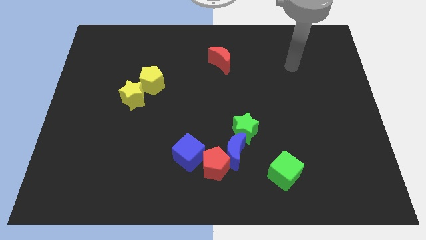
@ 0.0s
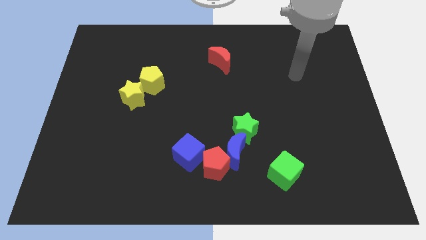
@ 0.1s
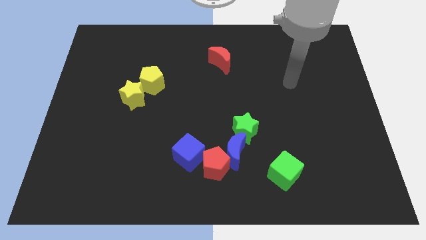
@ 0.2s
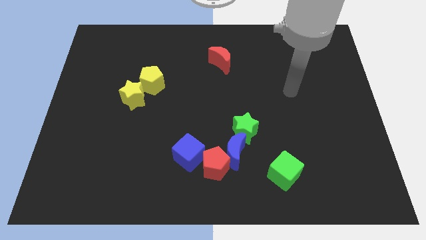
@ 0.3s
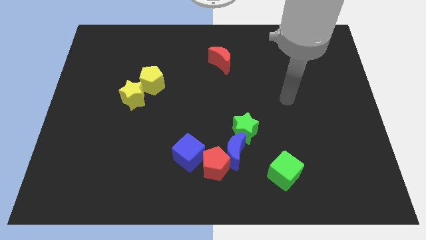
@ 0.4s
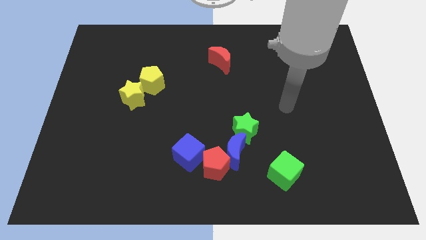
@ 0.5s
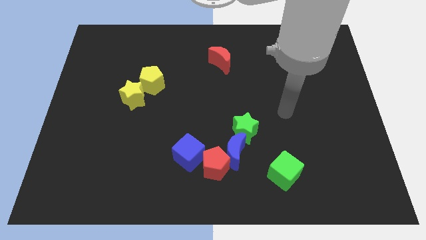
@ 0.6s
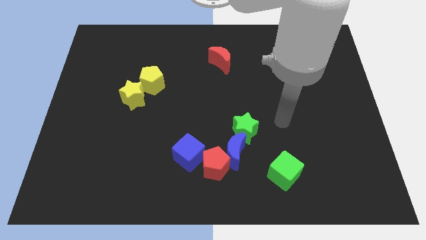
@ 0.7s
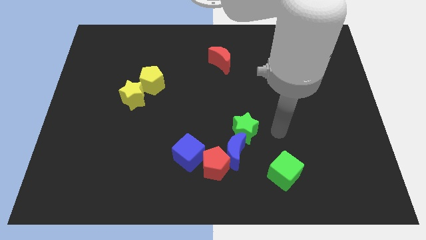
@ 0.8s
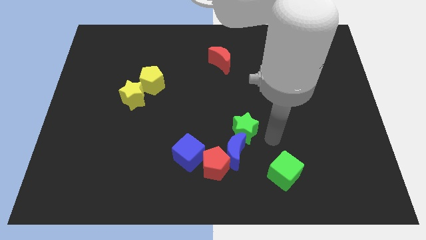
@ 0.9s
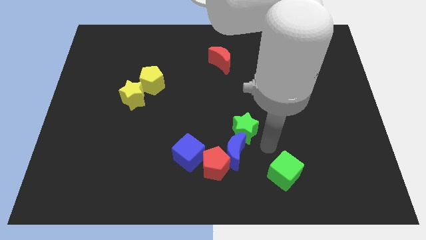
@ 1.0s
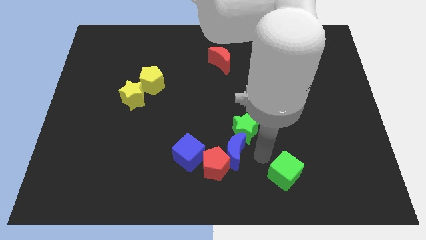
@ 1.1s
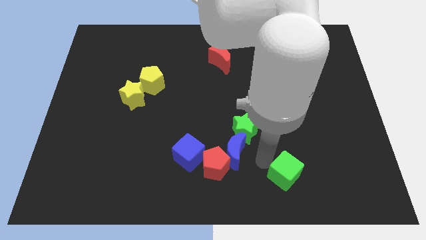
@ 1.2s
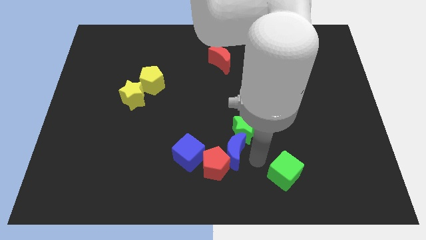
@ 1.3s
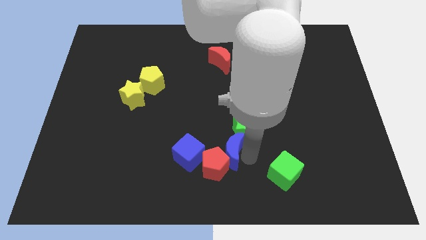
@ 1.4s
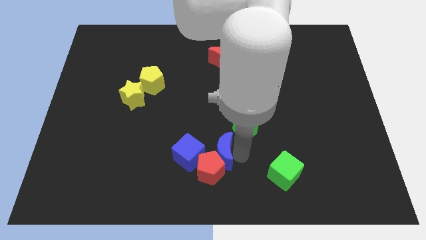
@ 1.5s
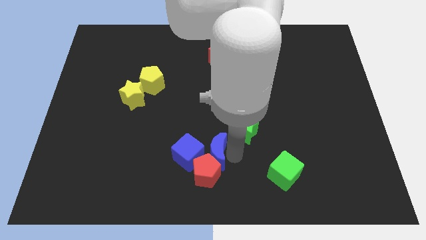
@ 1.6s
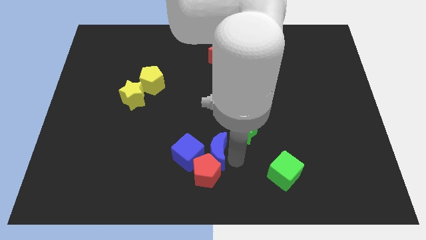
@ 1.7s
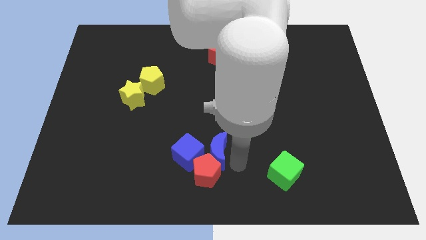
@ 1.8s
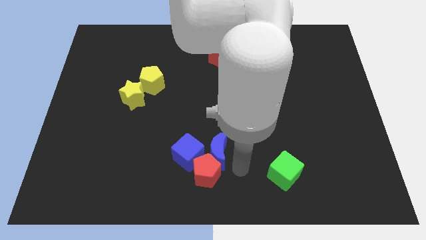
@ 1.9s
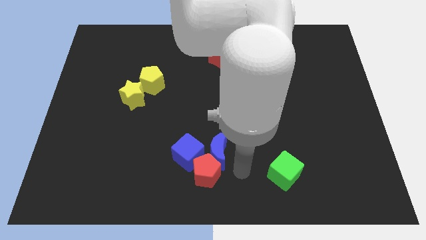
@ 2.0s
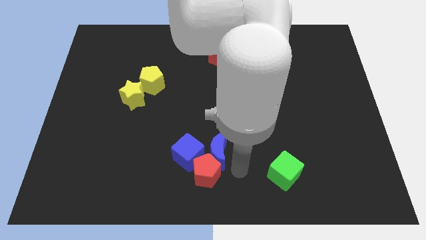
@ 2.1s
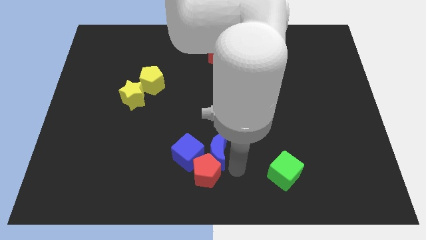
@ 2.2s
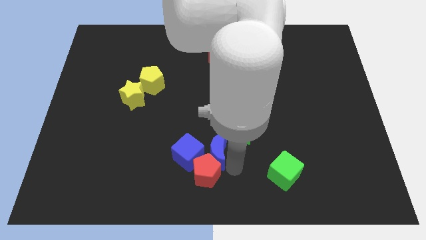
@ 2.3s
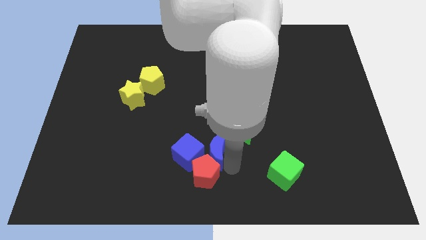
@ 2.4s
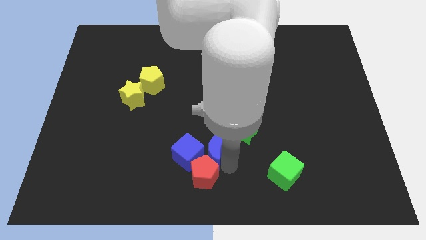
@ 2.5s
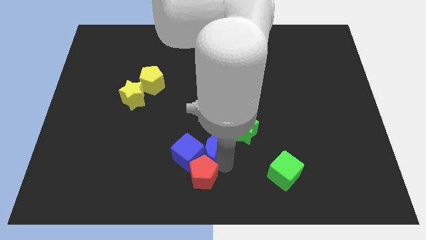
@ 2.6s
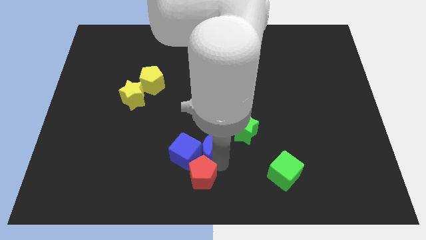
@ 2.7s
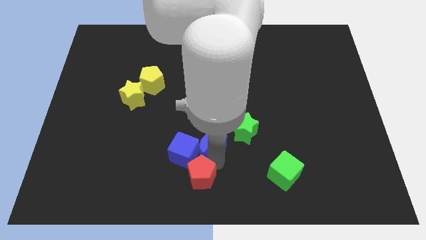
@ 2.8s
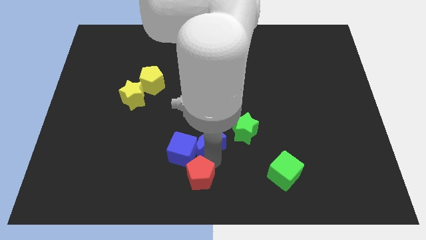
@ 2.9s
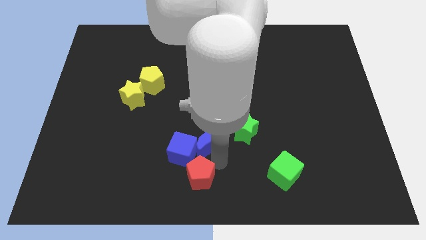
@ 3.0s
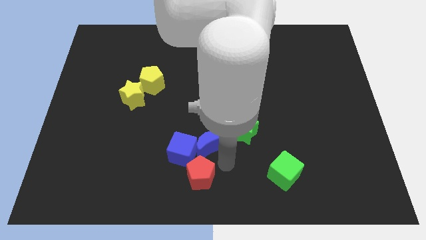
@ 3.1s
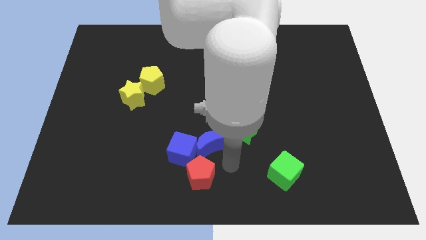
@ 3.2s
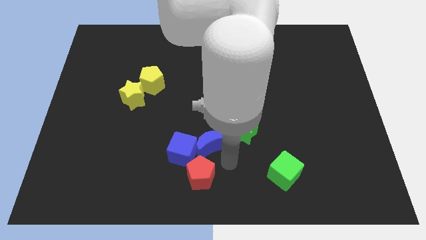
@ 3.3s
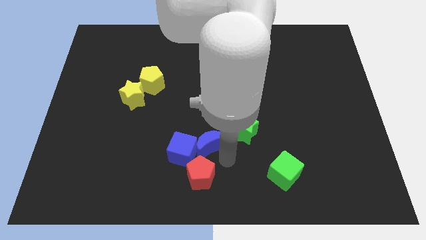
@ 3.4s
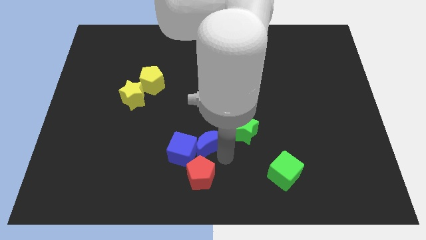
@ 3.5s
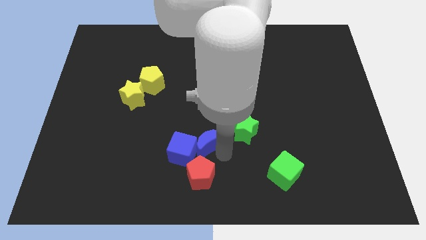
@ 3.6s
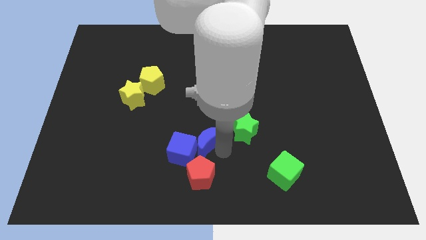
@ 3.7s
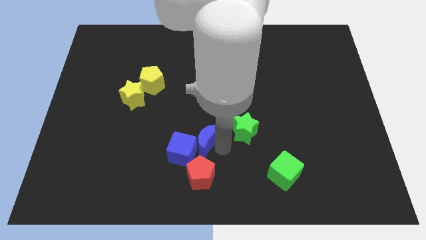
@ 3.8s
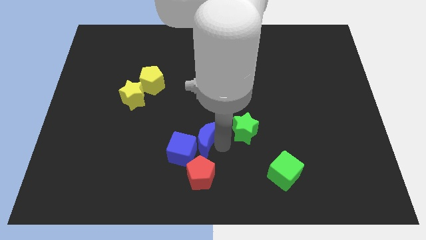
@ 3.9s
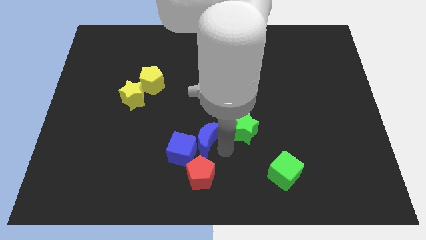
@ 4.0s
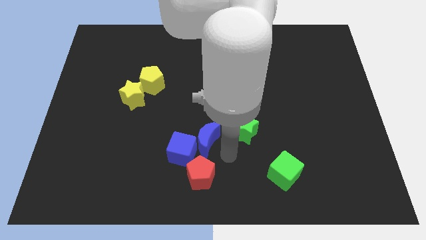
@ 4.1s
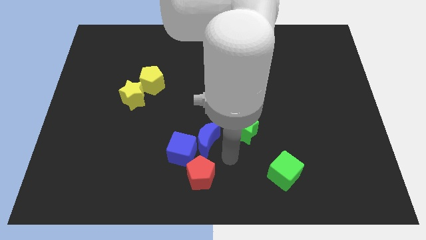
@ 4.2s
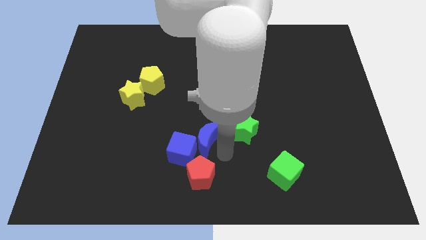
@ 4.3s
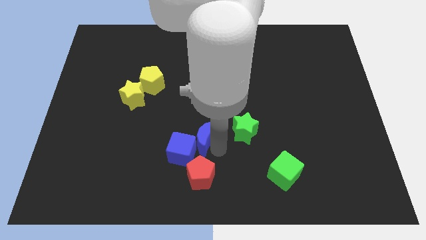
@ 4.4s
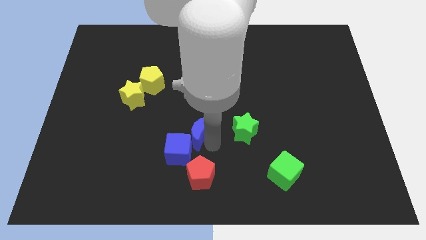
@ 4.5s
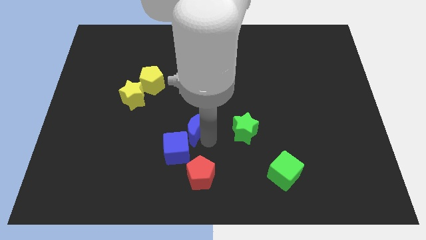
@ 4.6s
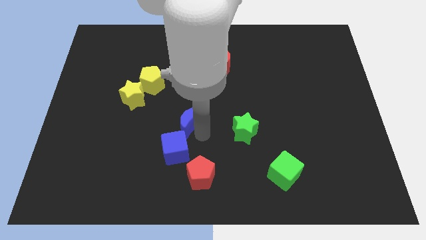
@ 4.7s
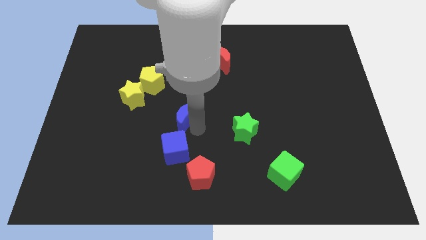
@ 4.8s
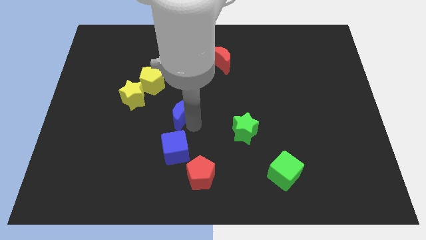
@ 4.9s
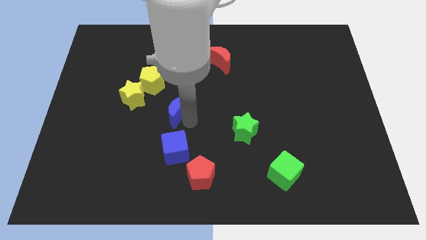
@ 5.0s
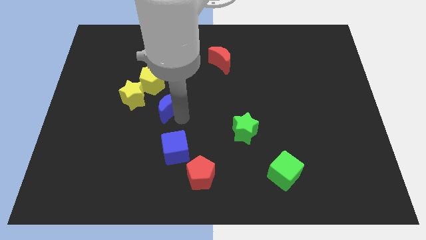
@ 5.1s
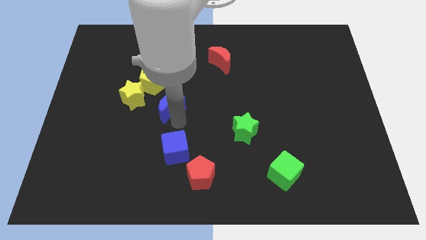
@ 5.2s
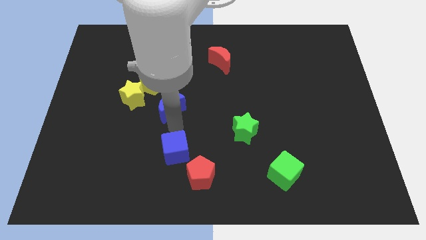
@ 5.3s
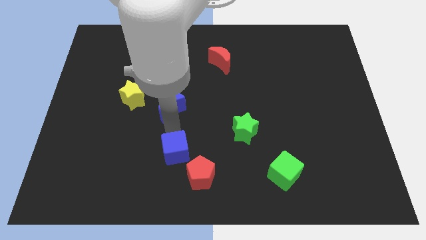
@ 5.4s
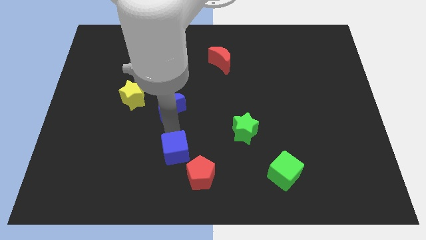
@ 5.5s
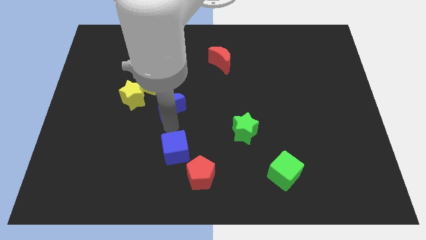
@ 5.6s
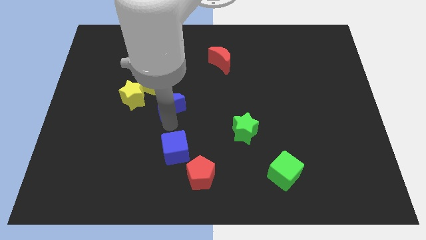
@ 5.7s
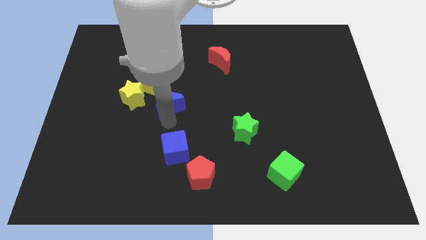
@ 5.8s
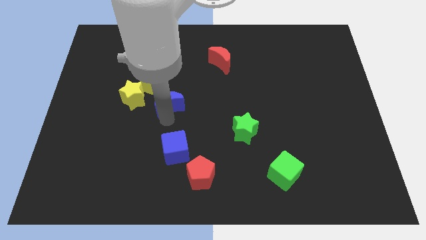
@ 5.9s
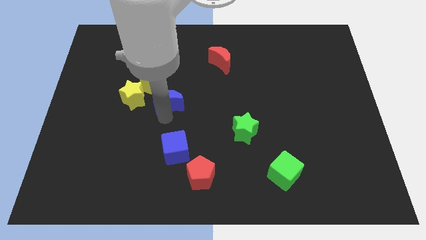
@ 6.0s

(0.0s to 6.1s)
push the blue moon up and to the left

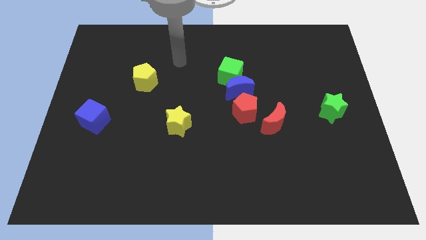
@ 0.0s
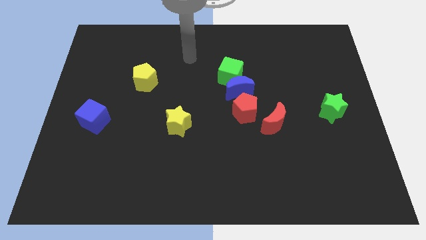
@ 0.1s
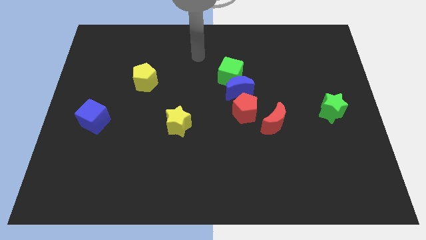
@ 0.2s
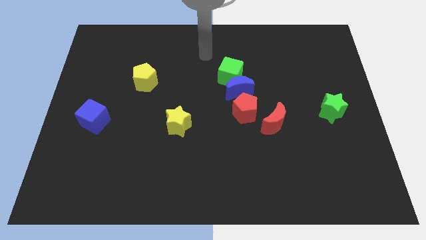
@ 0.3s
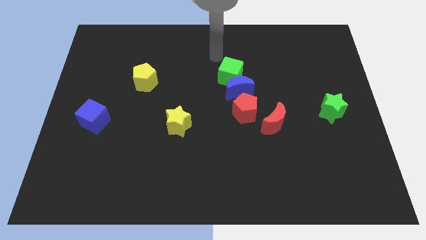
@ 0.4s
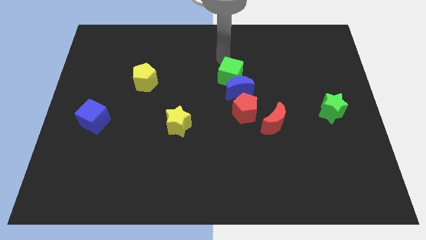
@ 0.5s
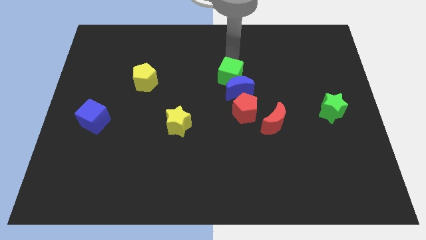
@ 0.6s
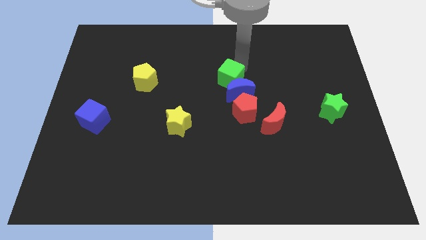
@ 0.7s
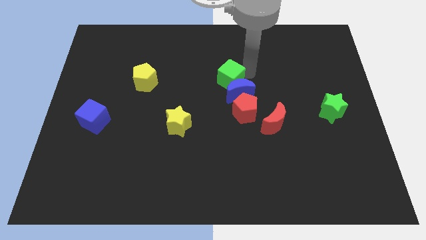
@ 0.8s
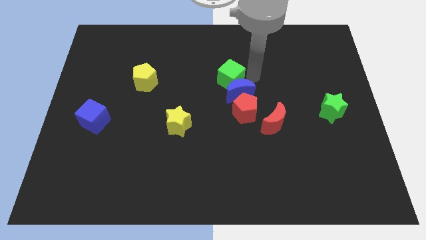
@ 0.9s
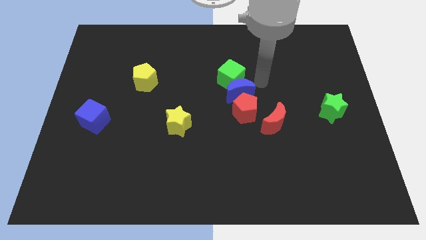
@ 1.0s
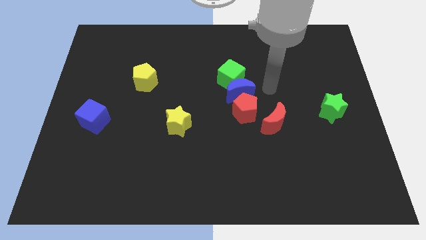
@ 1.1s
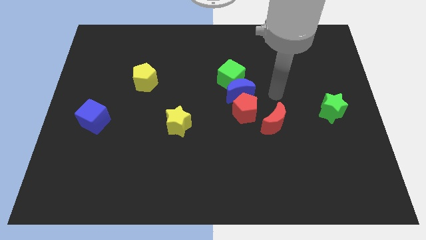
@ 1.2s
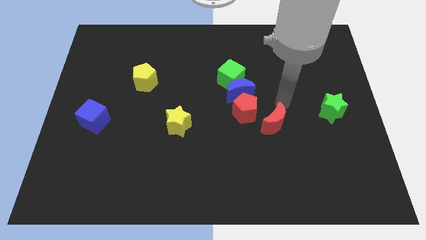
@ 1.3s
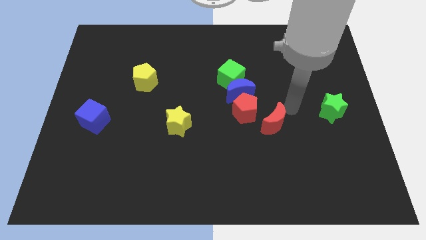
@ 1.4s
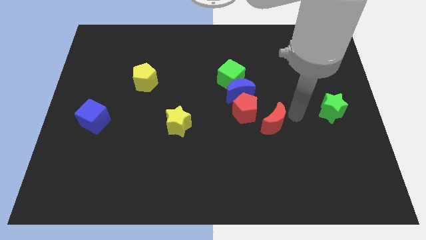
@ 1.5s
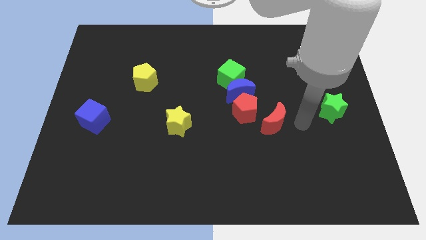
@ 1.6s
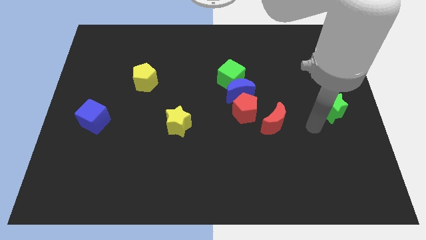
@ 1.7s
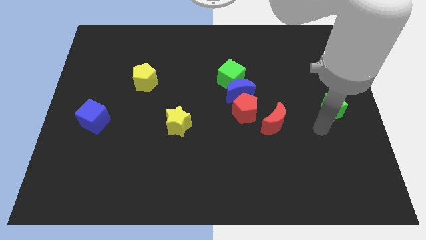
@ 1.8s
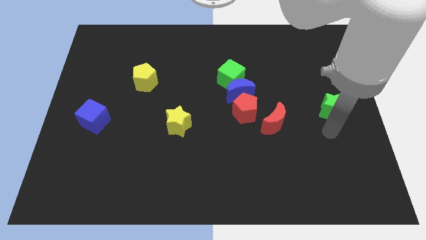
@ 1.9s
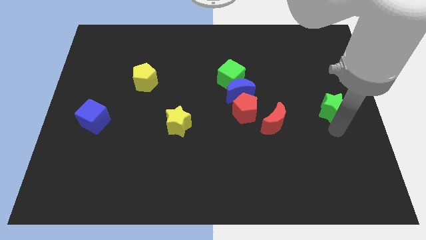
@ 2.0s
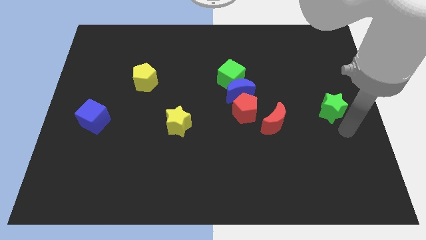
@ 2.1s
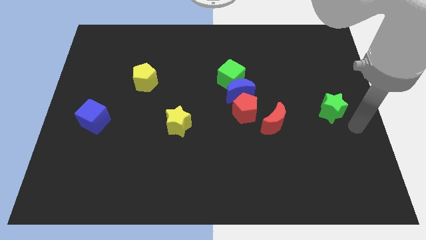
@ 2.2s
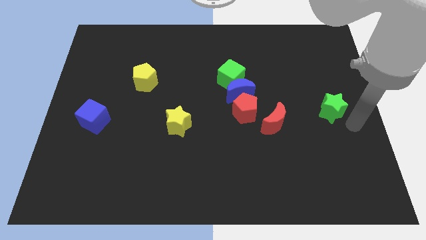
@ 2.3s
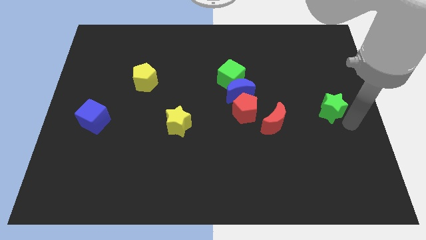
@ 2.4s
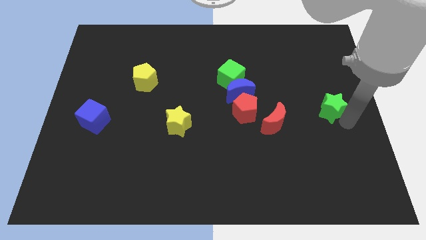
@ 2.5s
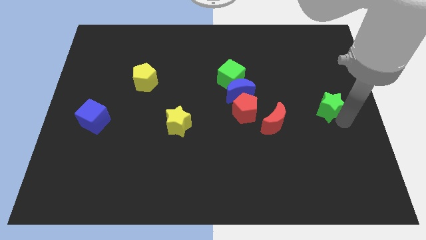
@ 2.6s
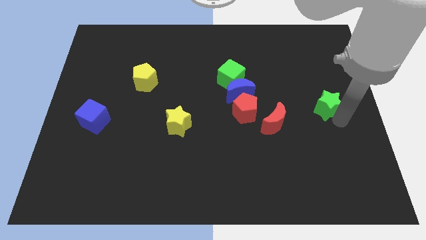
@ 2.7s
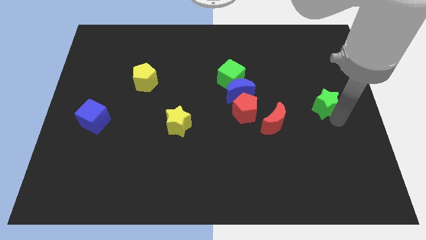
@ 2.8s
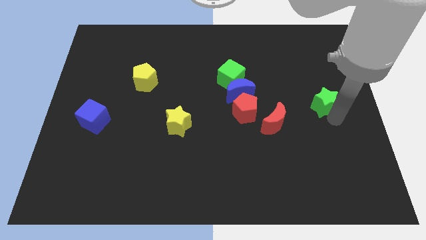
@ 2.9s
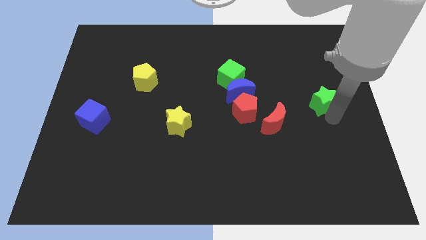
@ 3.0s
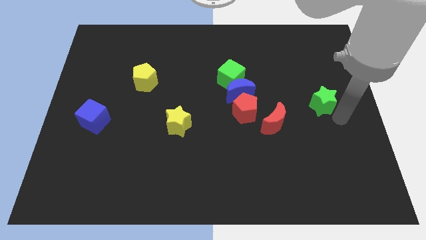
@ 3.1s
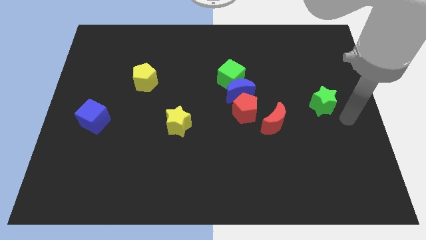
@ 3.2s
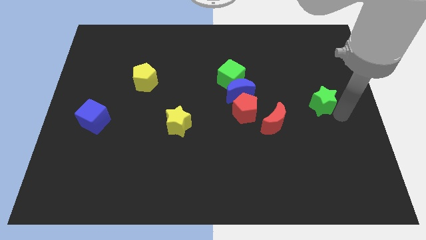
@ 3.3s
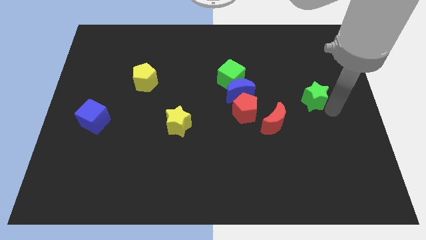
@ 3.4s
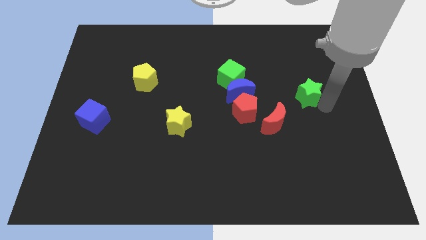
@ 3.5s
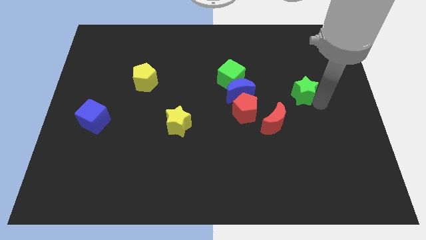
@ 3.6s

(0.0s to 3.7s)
slightly push the green star up and to the left diagonally
